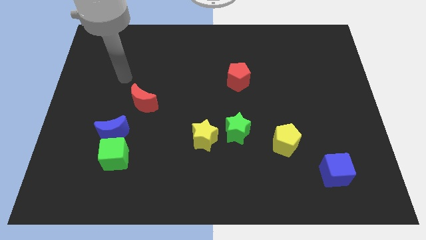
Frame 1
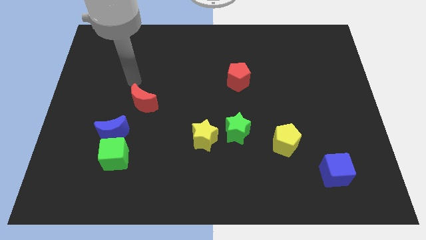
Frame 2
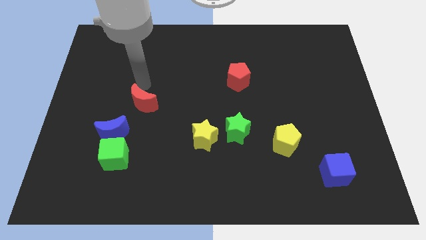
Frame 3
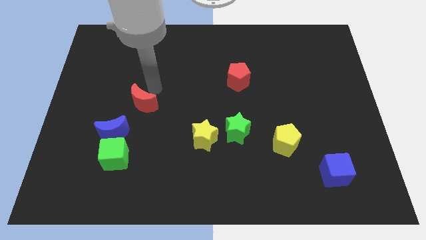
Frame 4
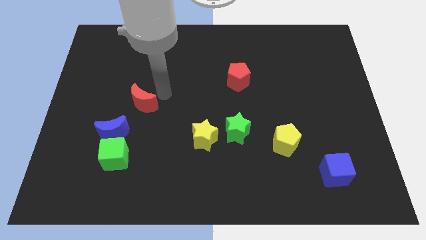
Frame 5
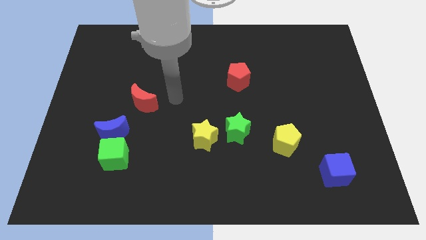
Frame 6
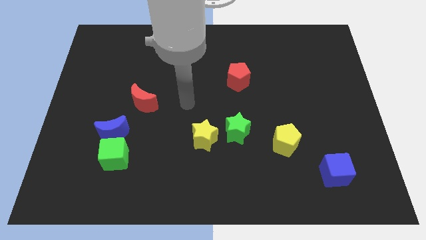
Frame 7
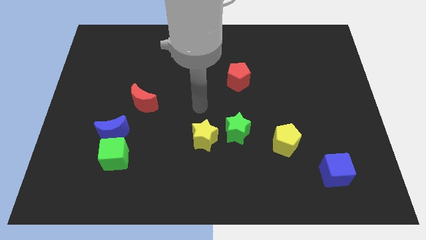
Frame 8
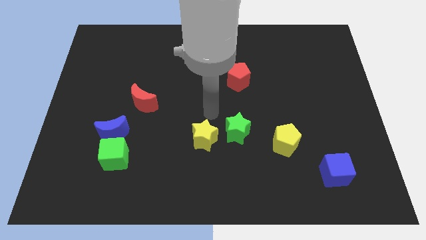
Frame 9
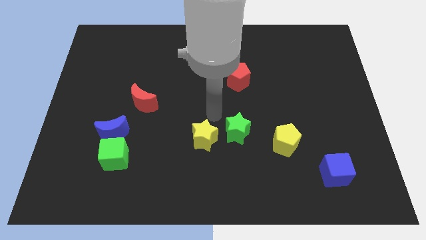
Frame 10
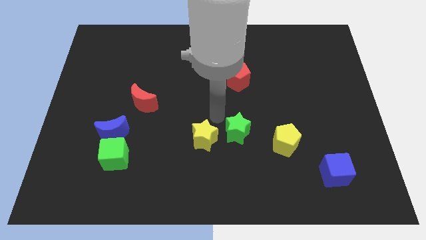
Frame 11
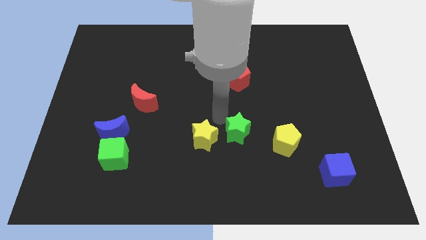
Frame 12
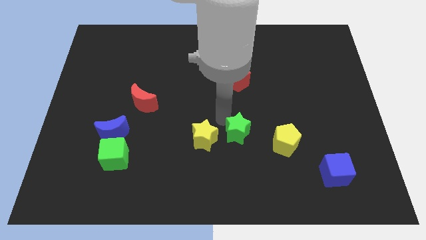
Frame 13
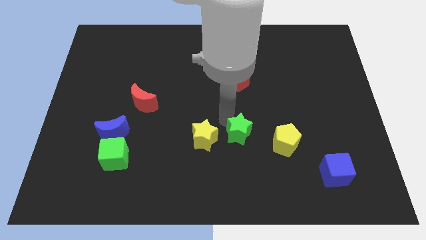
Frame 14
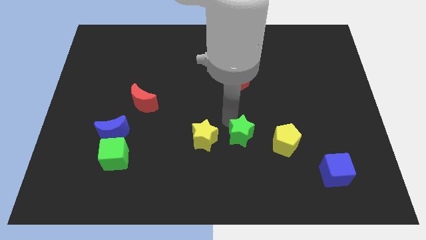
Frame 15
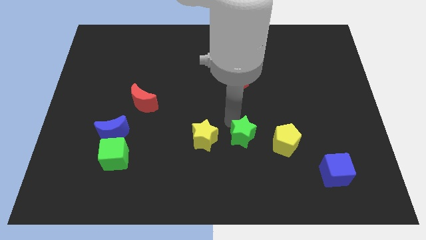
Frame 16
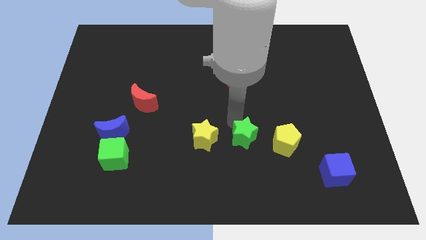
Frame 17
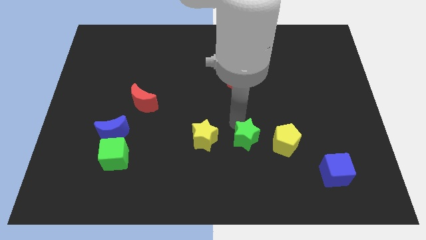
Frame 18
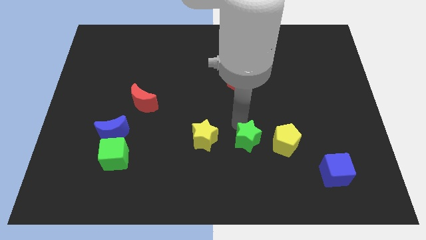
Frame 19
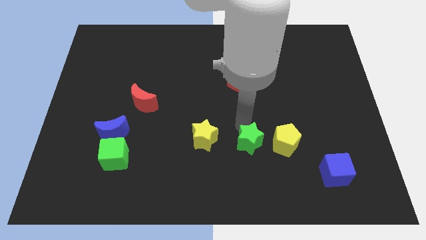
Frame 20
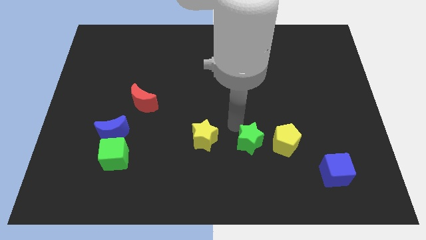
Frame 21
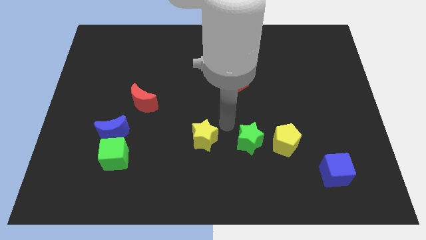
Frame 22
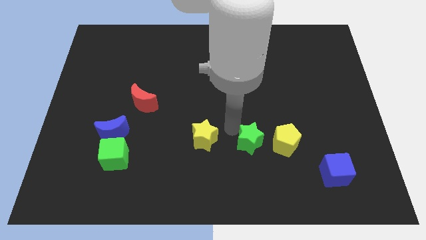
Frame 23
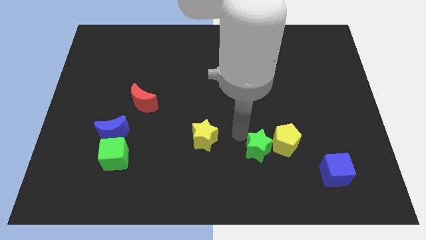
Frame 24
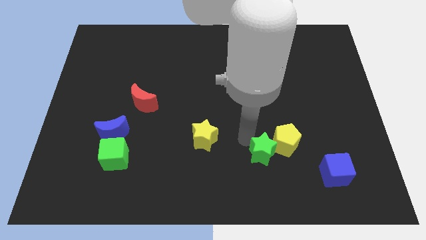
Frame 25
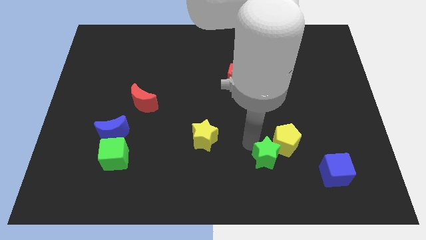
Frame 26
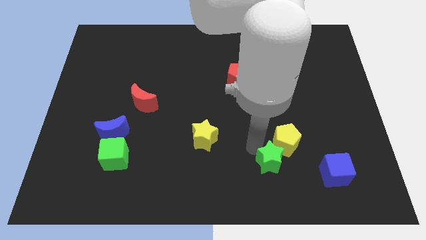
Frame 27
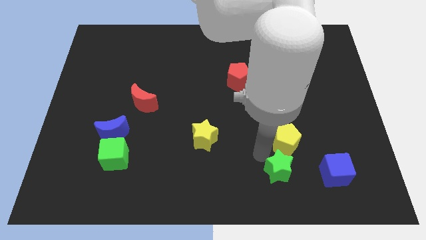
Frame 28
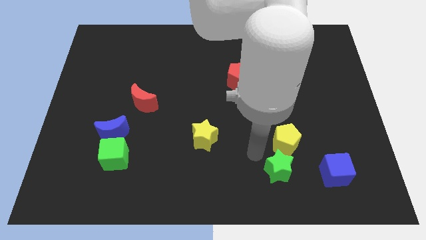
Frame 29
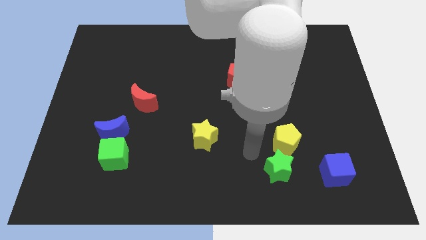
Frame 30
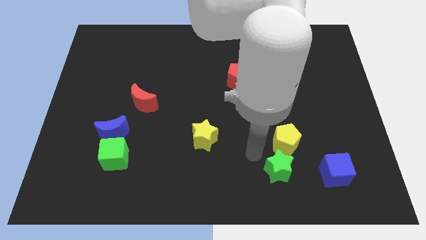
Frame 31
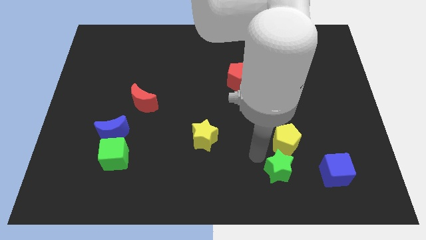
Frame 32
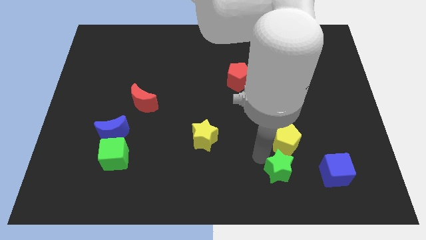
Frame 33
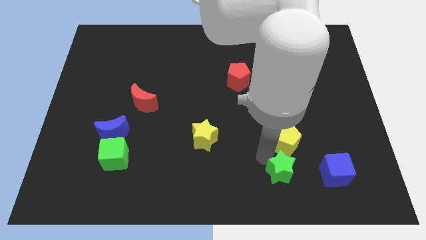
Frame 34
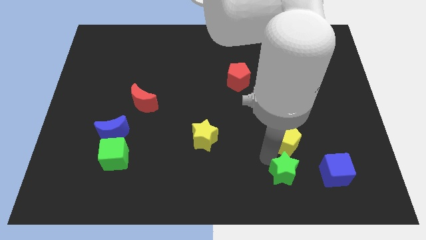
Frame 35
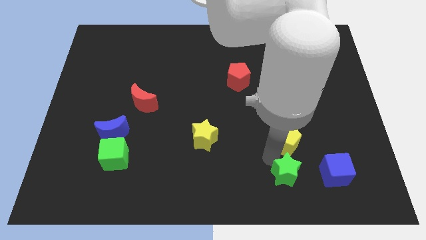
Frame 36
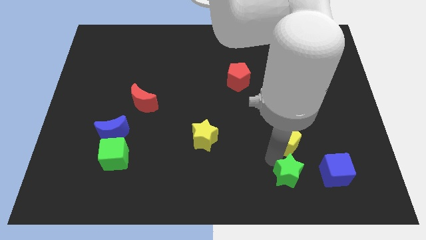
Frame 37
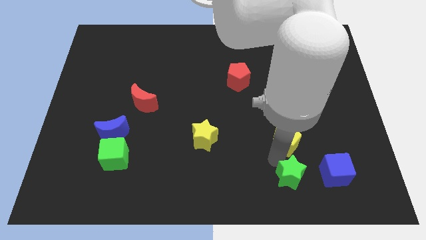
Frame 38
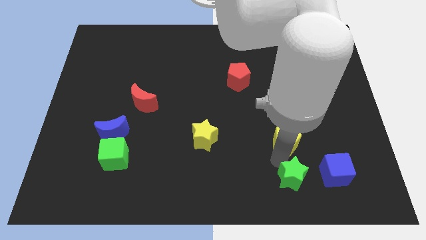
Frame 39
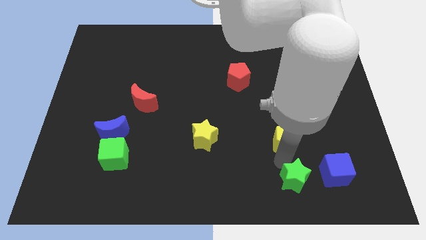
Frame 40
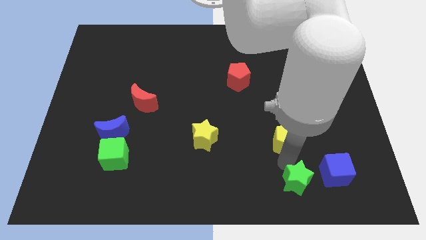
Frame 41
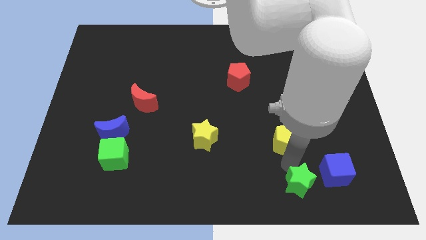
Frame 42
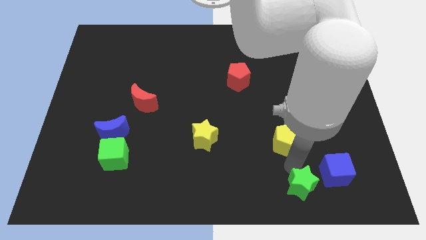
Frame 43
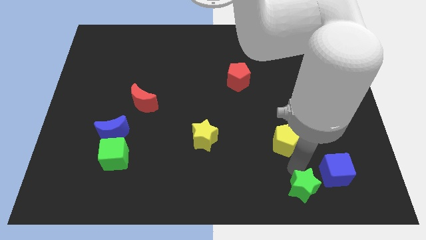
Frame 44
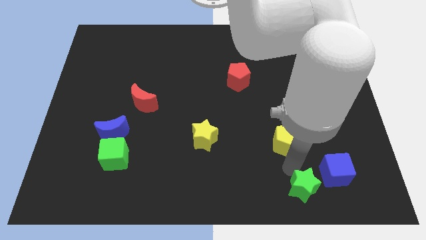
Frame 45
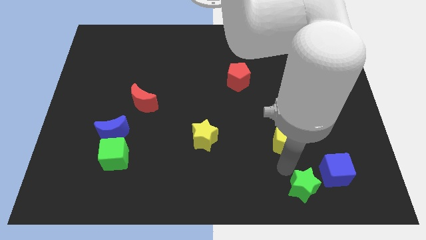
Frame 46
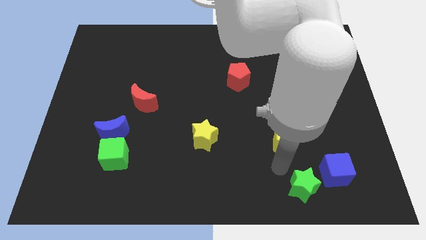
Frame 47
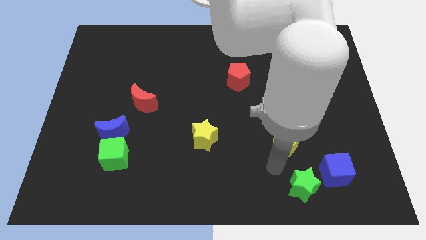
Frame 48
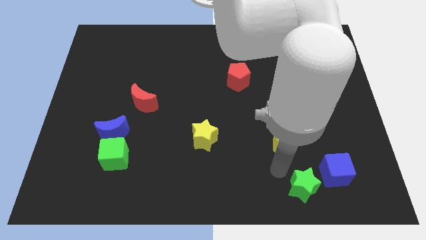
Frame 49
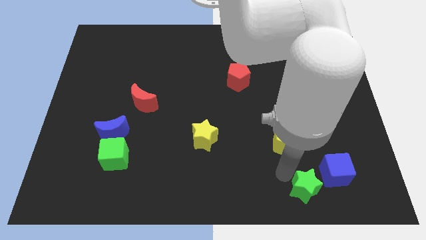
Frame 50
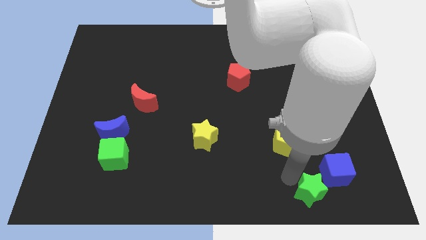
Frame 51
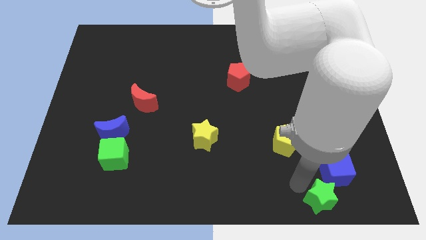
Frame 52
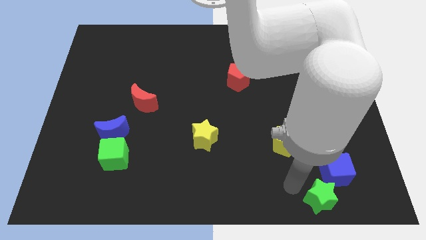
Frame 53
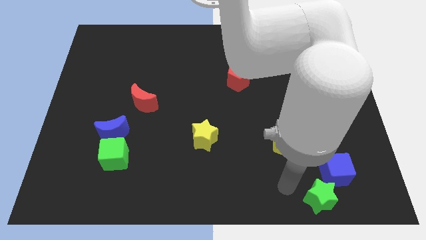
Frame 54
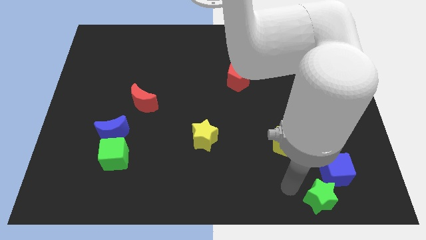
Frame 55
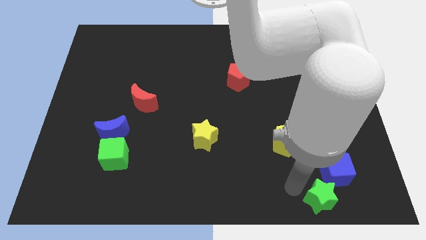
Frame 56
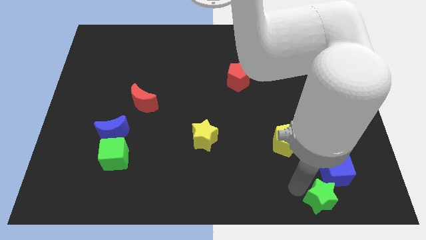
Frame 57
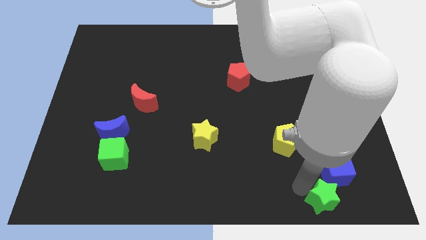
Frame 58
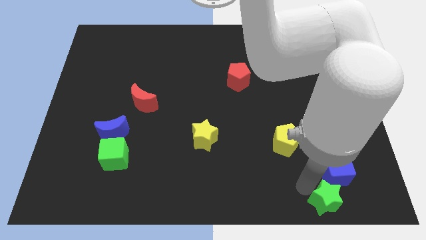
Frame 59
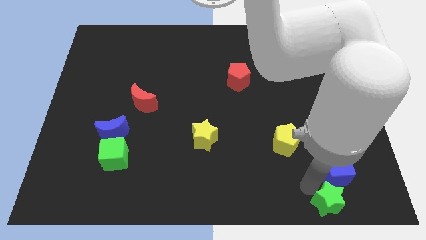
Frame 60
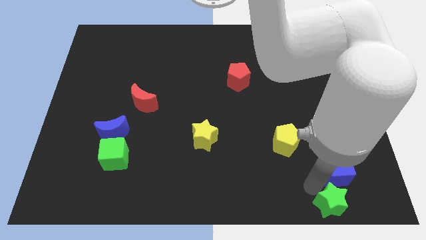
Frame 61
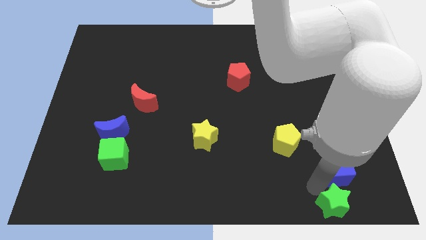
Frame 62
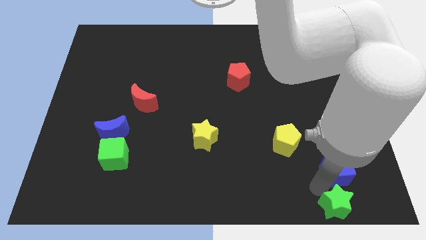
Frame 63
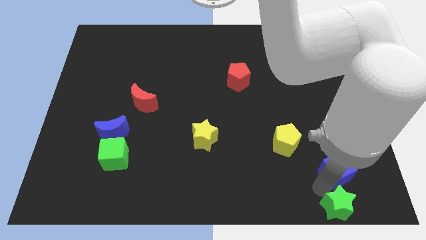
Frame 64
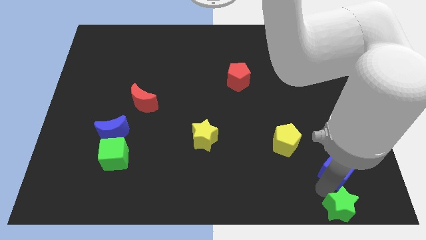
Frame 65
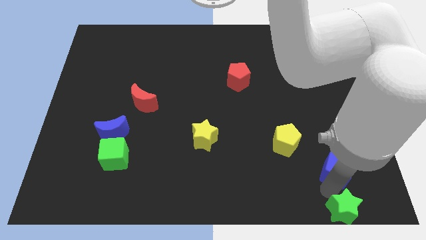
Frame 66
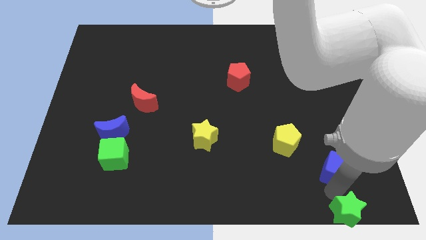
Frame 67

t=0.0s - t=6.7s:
slide the green star to the lower right corner
